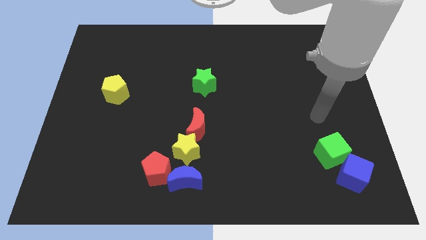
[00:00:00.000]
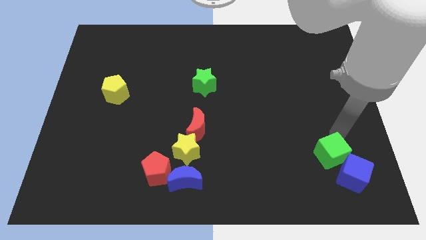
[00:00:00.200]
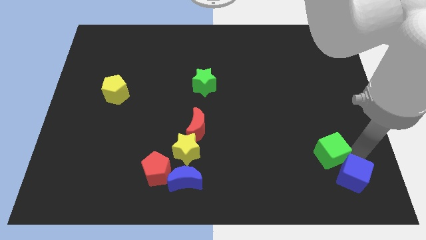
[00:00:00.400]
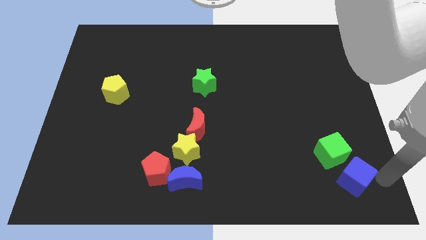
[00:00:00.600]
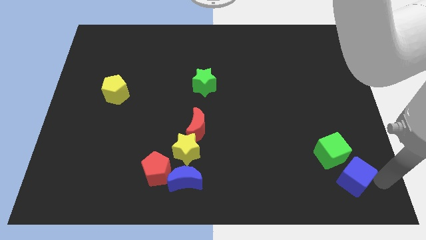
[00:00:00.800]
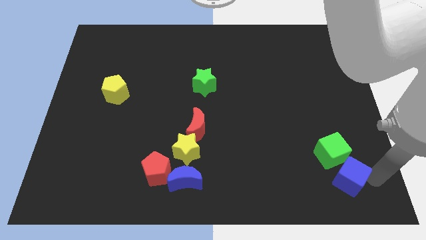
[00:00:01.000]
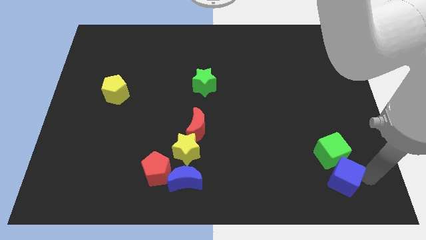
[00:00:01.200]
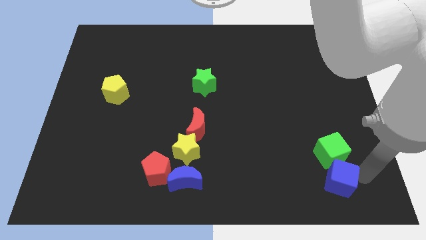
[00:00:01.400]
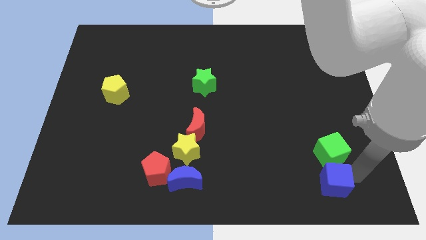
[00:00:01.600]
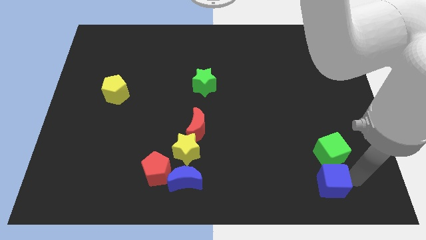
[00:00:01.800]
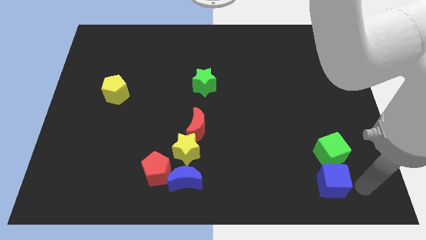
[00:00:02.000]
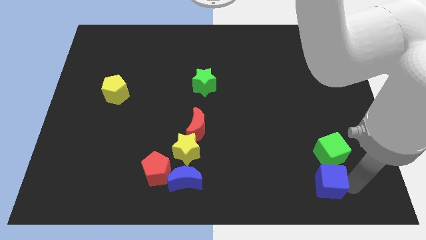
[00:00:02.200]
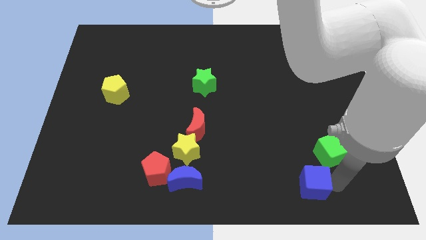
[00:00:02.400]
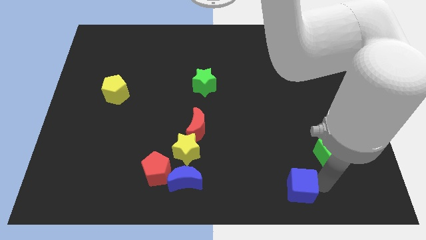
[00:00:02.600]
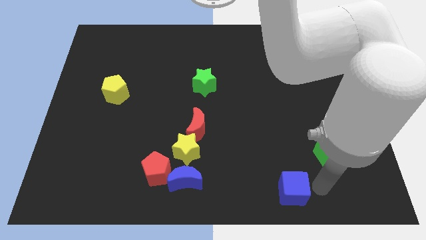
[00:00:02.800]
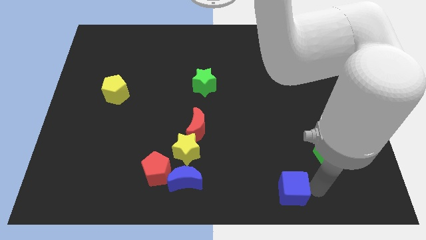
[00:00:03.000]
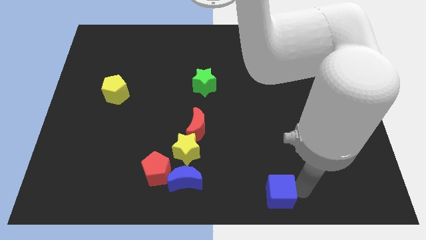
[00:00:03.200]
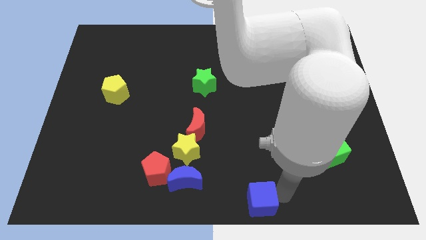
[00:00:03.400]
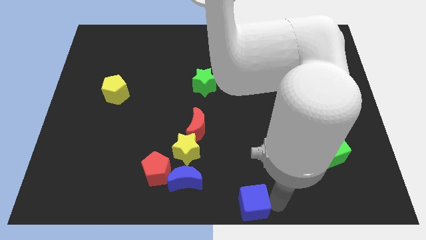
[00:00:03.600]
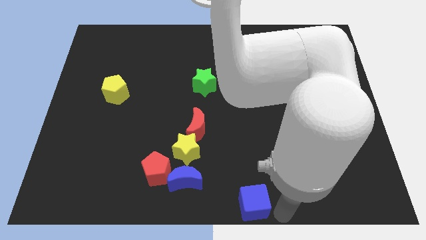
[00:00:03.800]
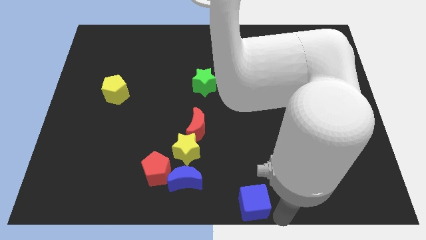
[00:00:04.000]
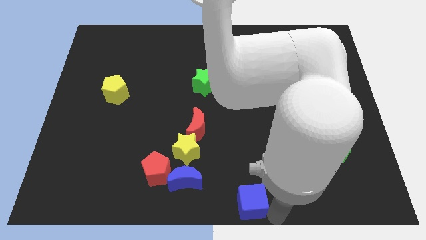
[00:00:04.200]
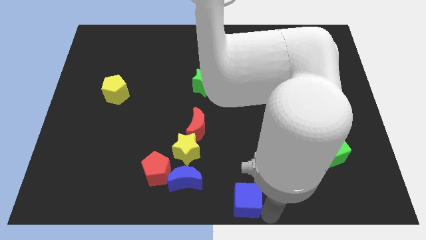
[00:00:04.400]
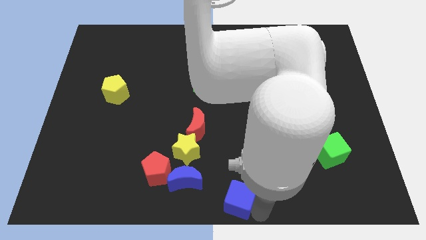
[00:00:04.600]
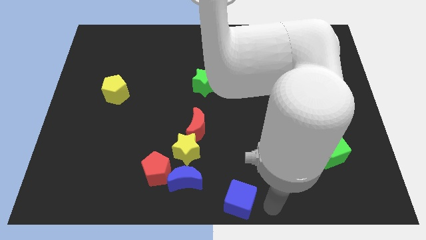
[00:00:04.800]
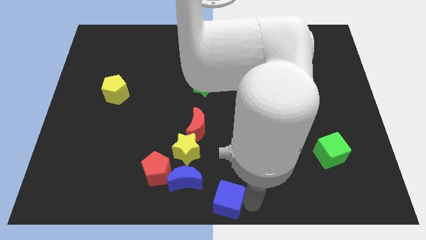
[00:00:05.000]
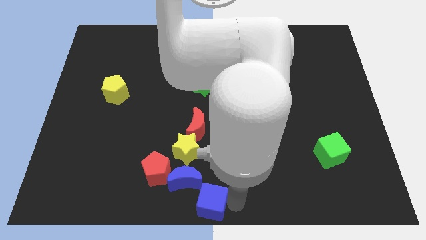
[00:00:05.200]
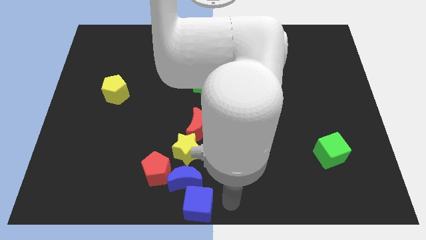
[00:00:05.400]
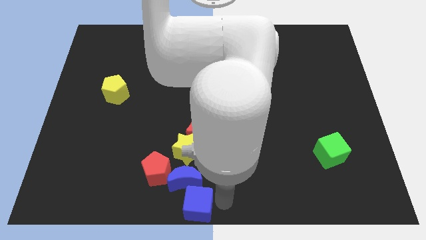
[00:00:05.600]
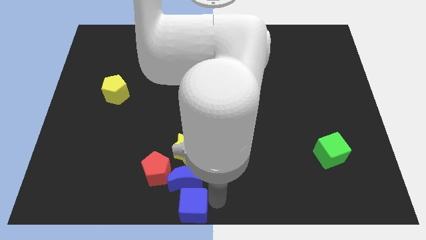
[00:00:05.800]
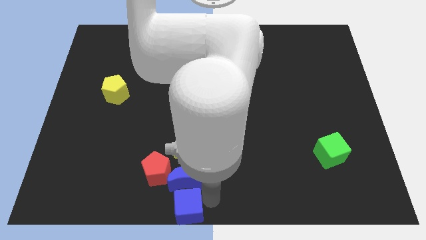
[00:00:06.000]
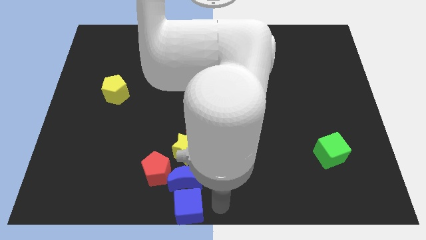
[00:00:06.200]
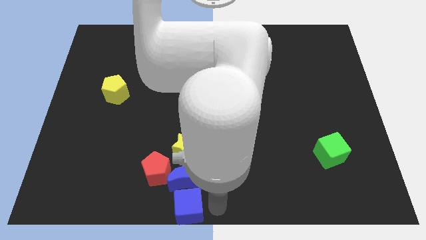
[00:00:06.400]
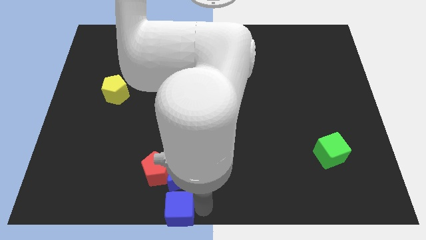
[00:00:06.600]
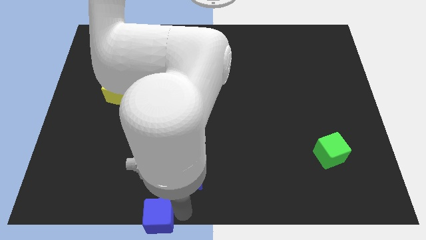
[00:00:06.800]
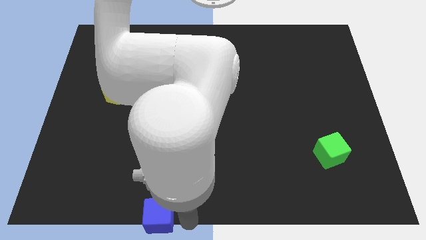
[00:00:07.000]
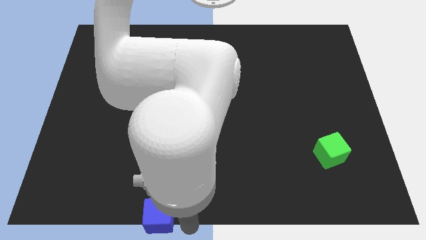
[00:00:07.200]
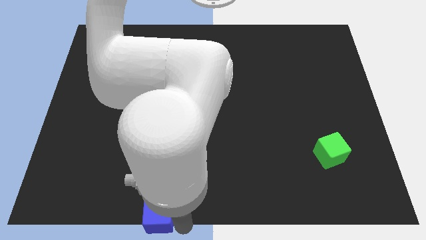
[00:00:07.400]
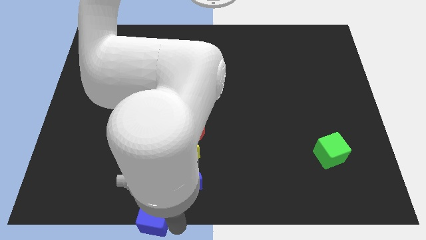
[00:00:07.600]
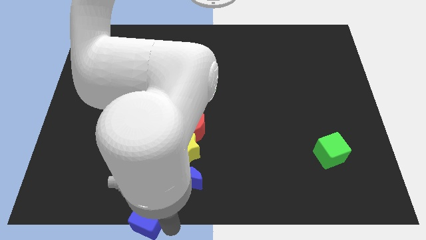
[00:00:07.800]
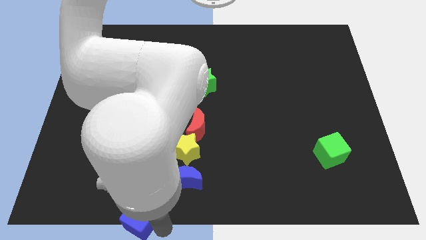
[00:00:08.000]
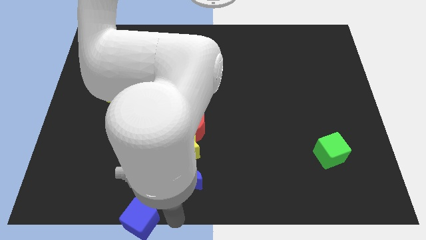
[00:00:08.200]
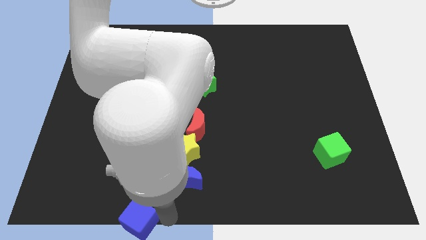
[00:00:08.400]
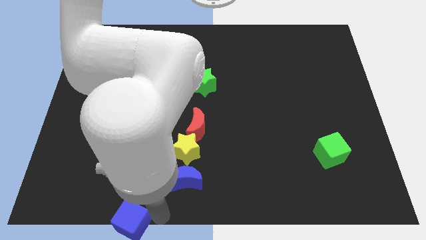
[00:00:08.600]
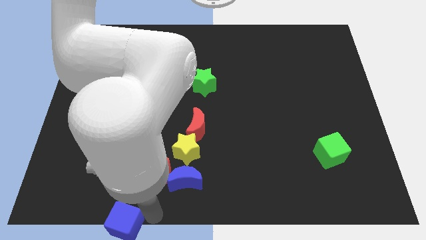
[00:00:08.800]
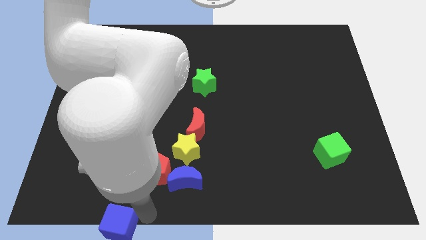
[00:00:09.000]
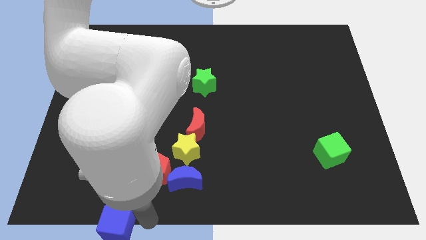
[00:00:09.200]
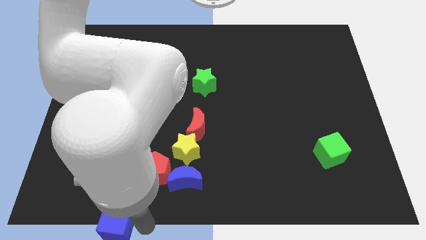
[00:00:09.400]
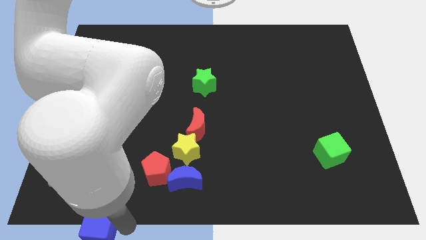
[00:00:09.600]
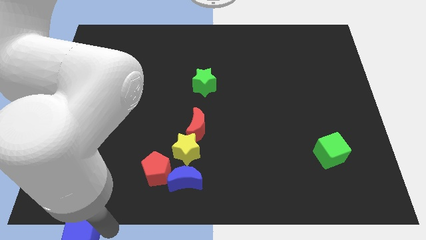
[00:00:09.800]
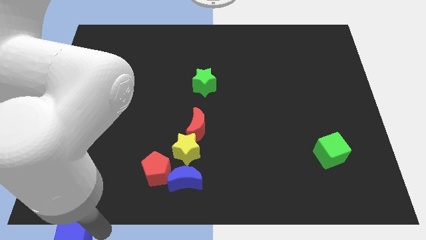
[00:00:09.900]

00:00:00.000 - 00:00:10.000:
move the blue cube to the bottom left corner

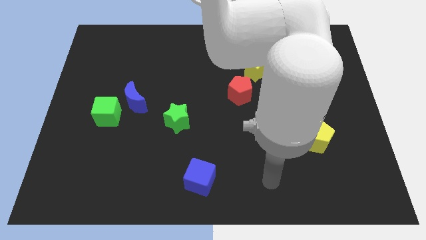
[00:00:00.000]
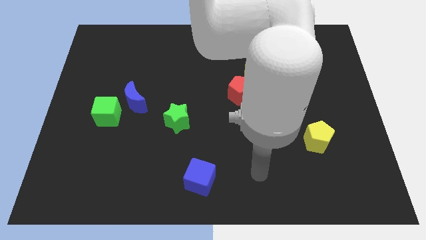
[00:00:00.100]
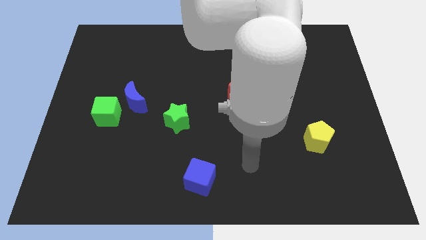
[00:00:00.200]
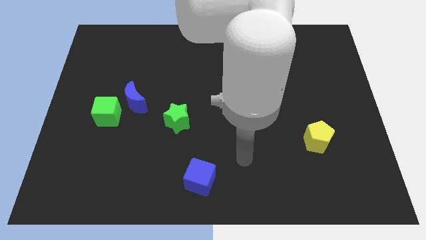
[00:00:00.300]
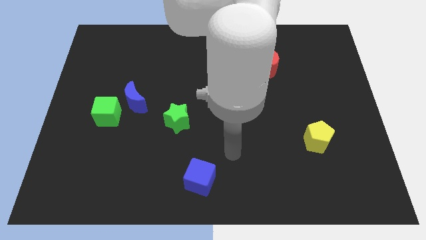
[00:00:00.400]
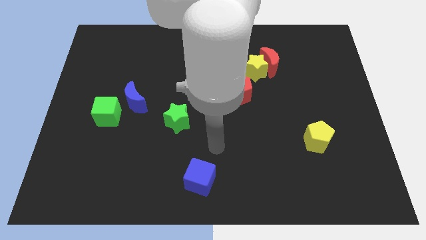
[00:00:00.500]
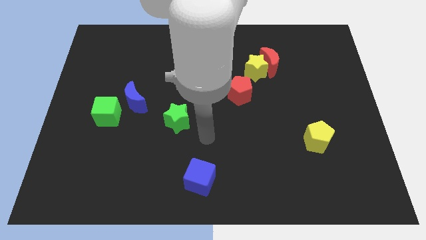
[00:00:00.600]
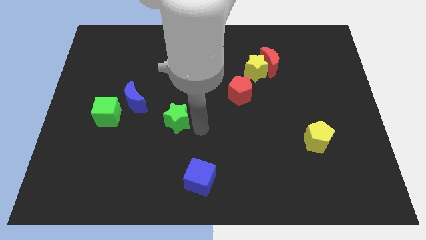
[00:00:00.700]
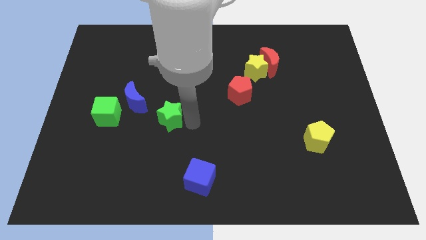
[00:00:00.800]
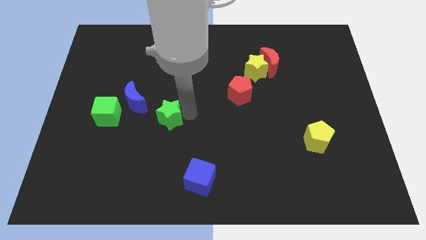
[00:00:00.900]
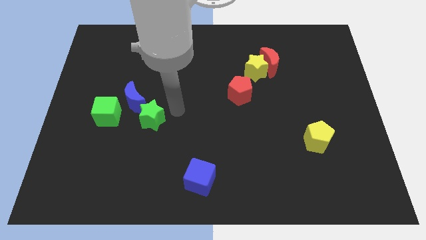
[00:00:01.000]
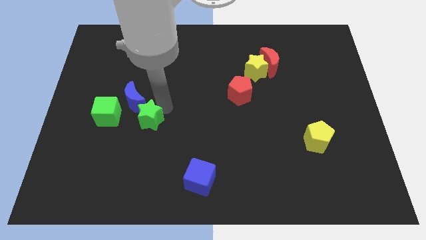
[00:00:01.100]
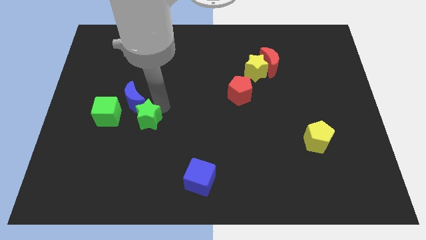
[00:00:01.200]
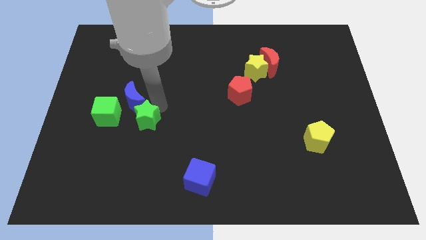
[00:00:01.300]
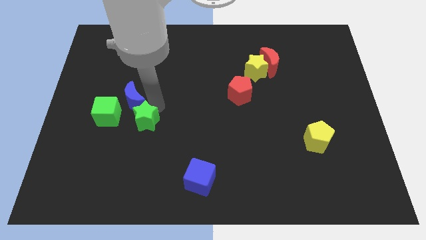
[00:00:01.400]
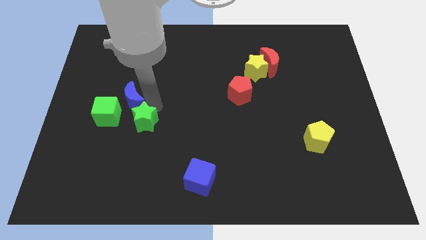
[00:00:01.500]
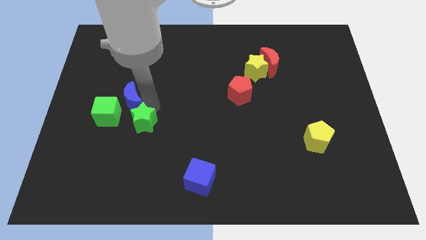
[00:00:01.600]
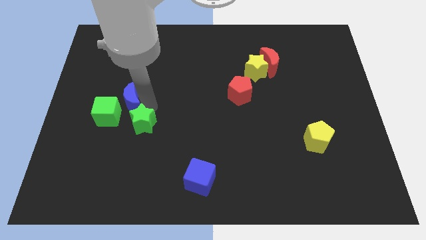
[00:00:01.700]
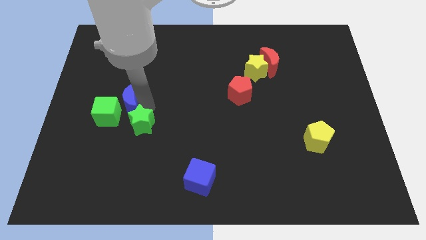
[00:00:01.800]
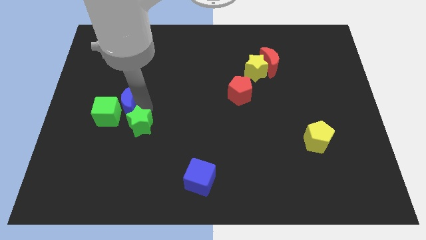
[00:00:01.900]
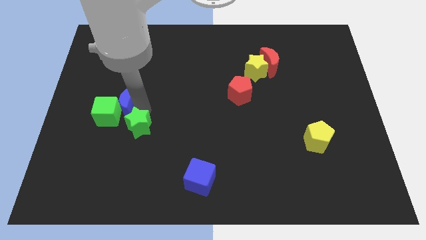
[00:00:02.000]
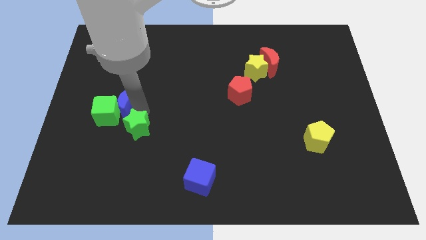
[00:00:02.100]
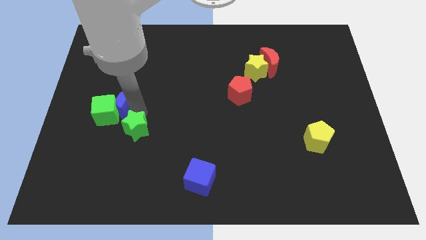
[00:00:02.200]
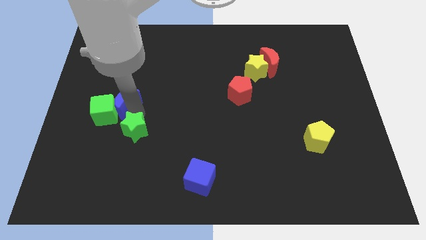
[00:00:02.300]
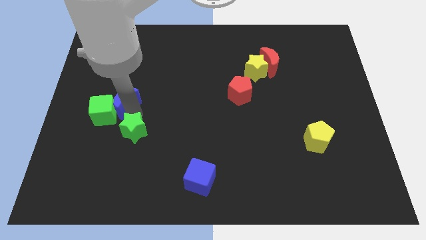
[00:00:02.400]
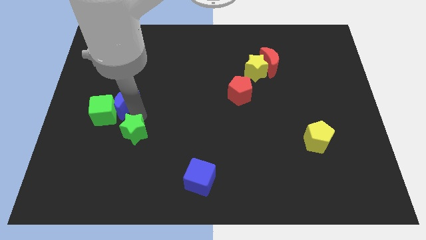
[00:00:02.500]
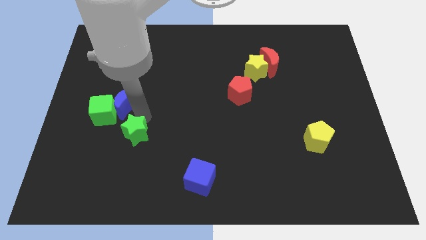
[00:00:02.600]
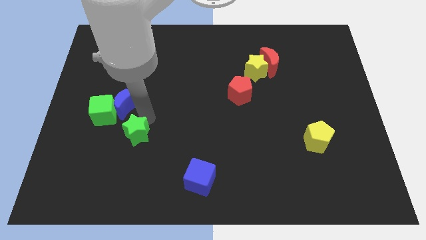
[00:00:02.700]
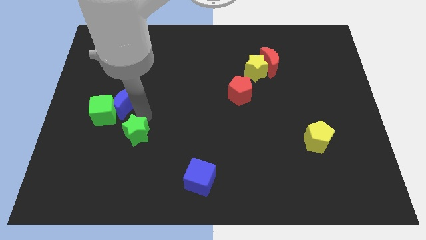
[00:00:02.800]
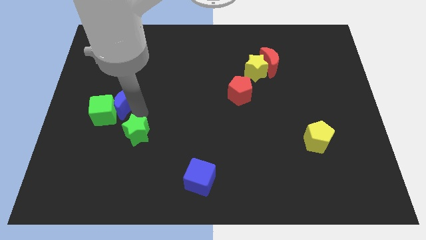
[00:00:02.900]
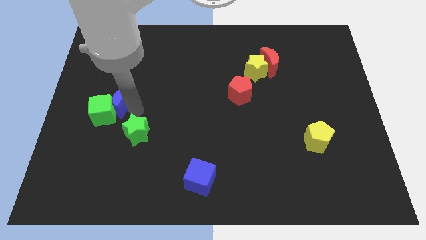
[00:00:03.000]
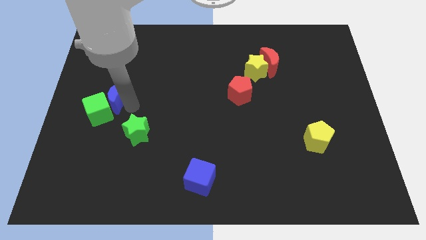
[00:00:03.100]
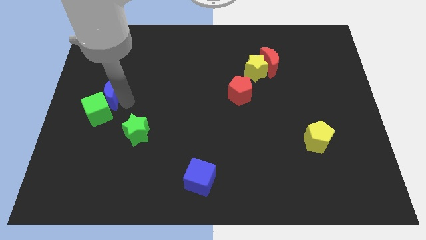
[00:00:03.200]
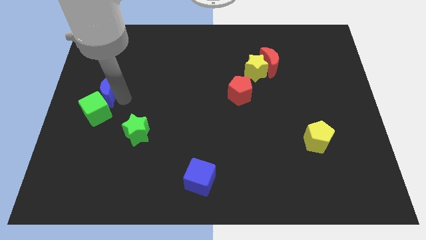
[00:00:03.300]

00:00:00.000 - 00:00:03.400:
put the blue moon to the left side of the board
